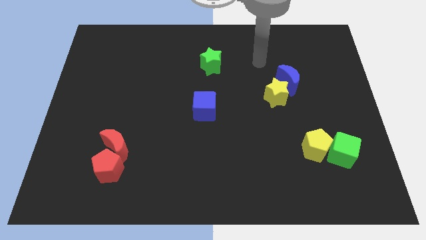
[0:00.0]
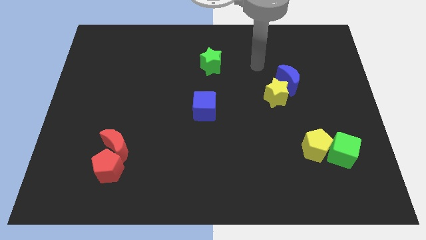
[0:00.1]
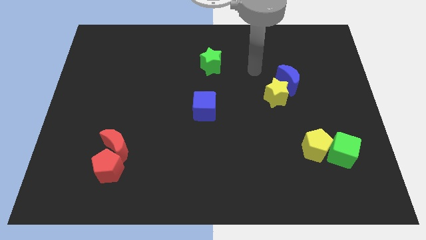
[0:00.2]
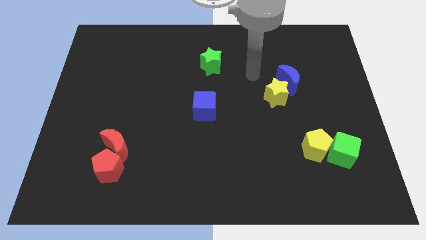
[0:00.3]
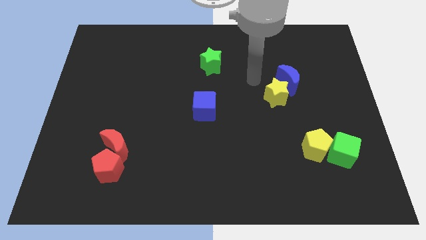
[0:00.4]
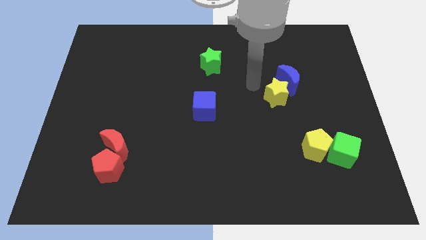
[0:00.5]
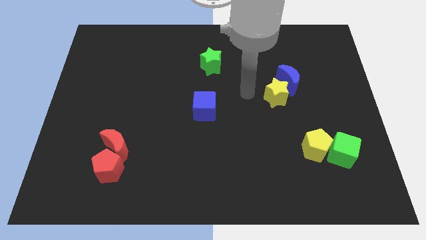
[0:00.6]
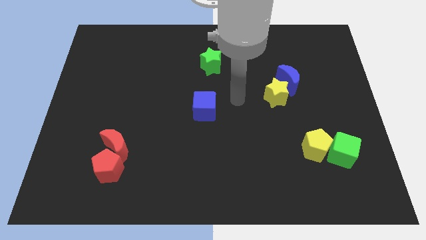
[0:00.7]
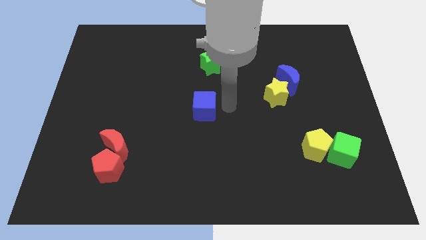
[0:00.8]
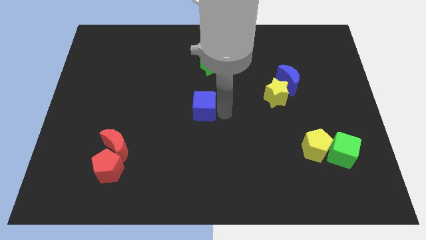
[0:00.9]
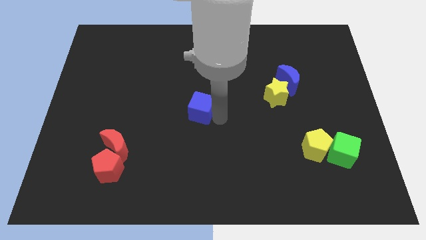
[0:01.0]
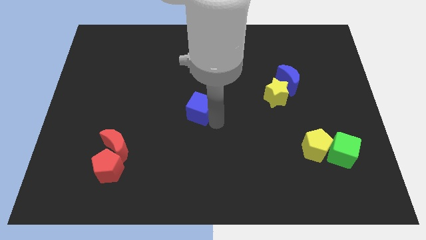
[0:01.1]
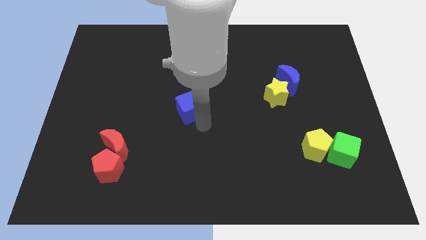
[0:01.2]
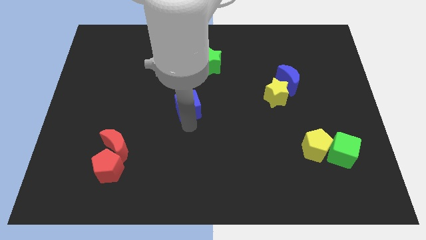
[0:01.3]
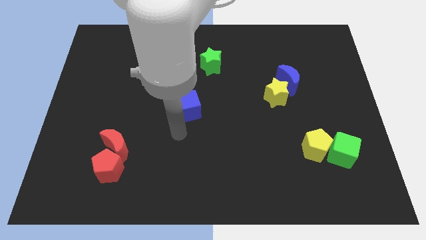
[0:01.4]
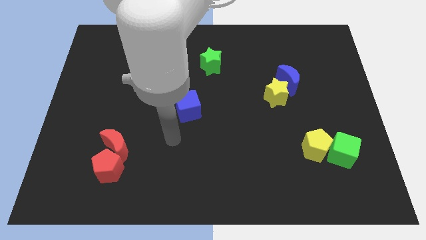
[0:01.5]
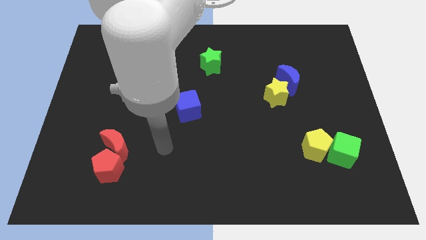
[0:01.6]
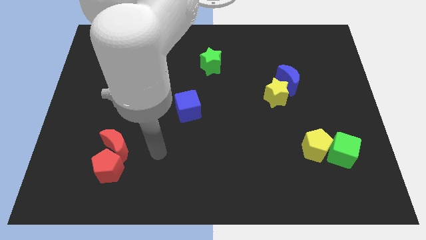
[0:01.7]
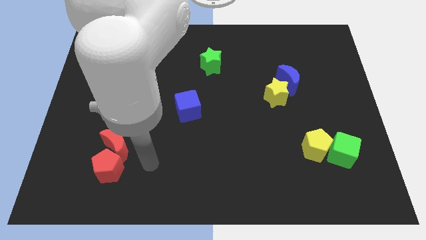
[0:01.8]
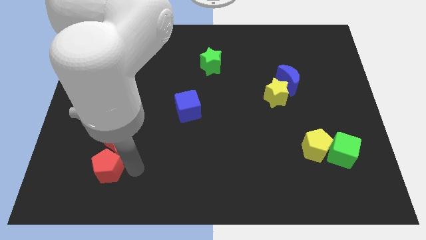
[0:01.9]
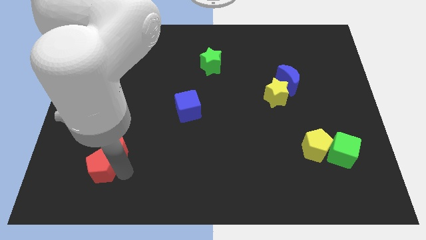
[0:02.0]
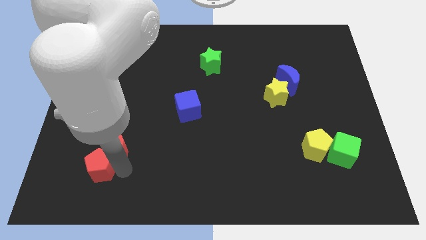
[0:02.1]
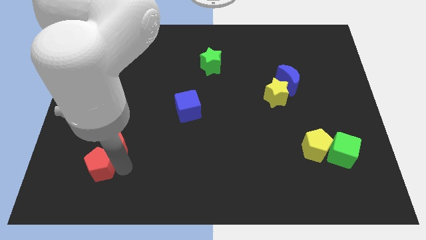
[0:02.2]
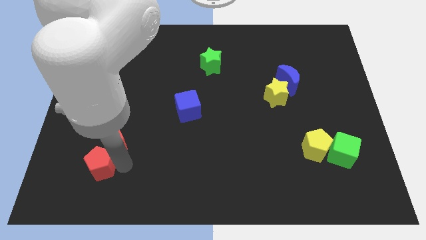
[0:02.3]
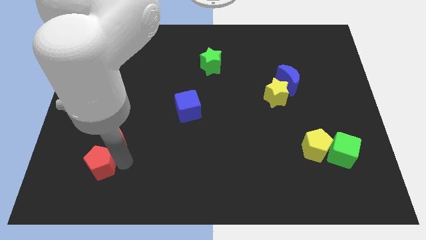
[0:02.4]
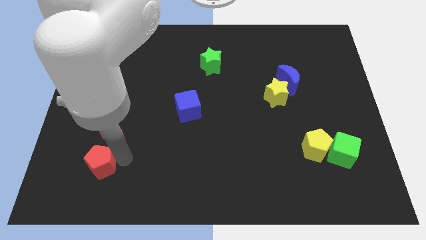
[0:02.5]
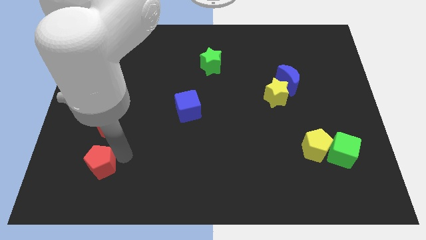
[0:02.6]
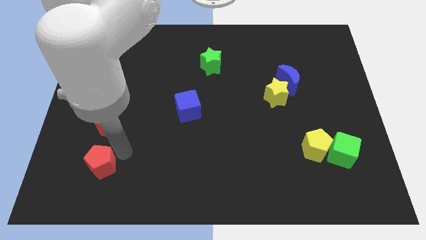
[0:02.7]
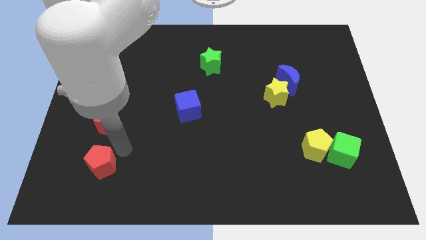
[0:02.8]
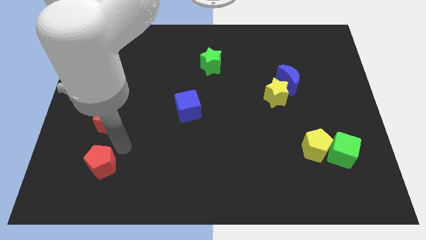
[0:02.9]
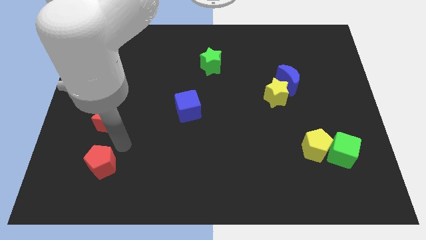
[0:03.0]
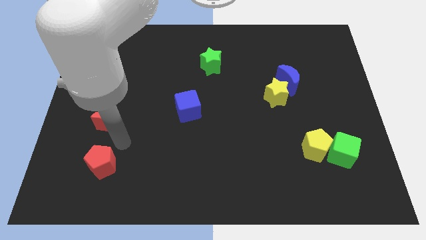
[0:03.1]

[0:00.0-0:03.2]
separate the red moon from the red pentagon
